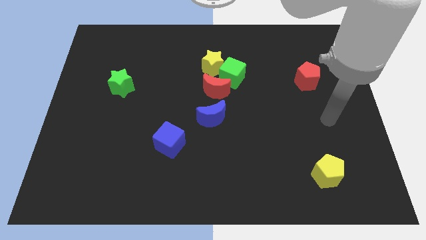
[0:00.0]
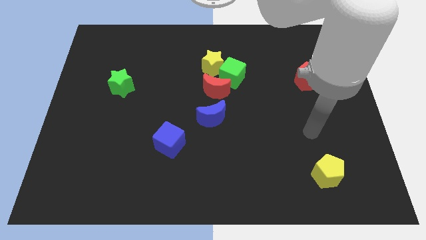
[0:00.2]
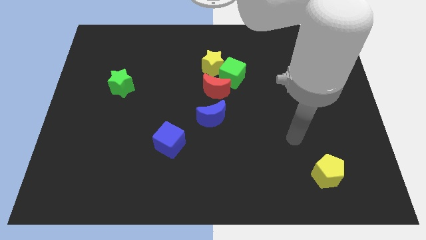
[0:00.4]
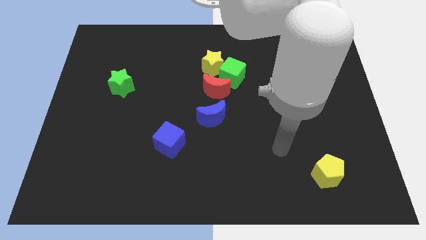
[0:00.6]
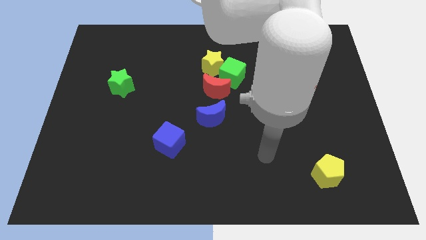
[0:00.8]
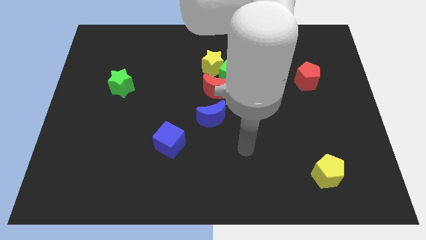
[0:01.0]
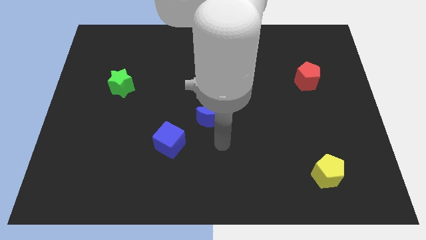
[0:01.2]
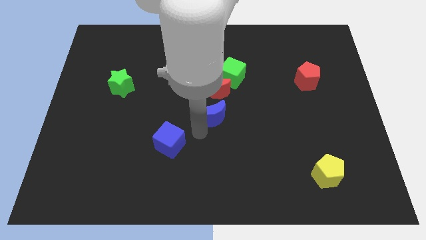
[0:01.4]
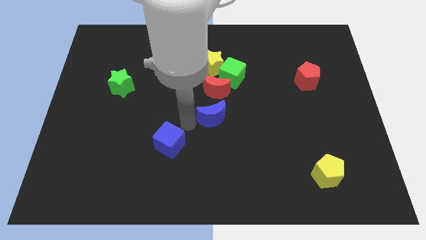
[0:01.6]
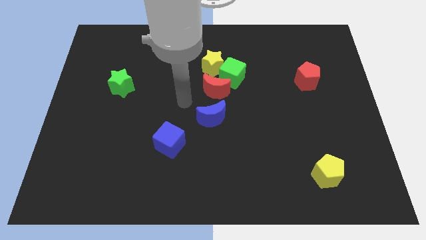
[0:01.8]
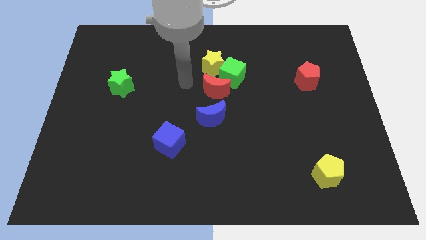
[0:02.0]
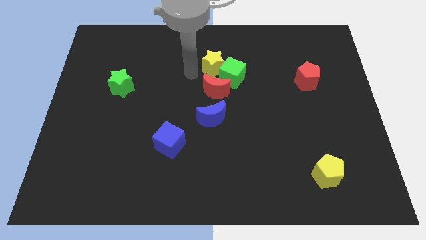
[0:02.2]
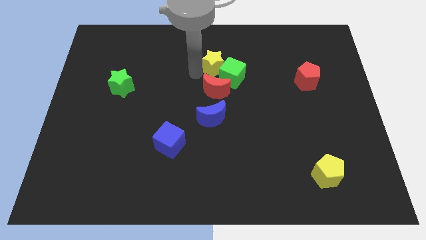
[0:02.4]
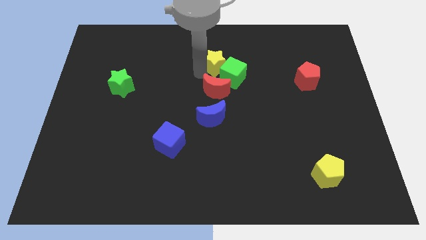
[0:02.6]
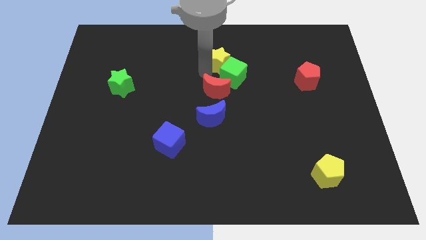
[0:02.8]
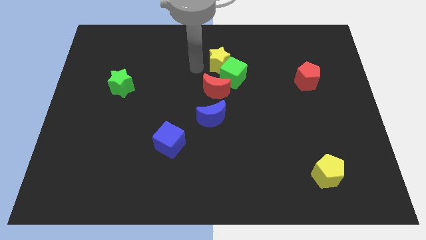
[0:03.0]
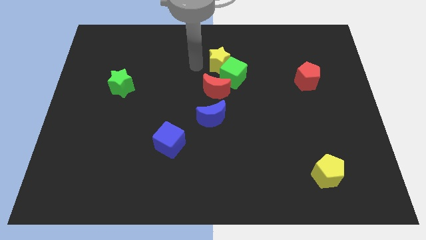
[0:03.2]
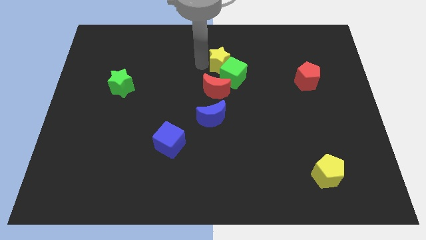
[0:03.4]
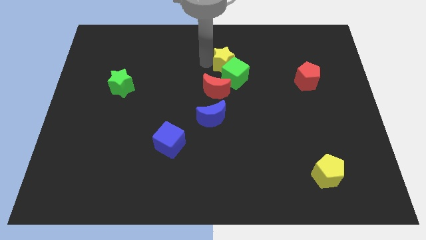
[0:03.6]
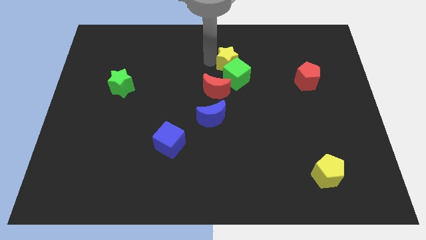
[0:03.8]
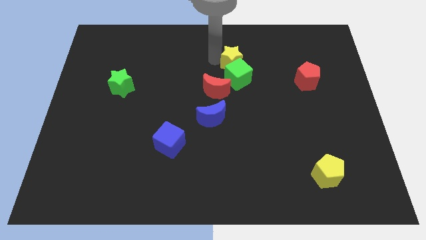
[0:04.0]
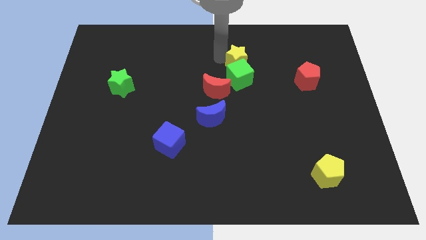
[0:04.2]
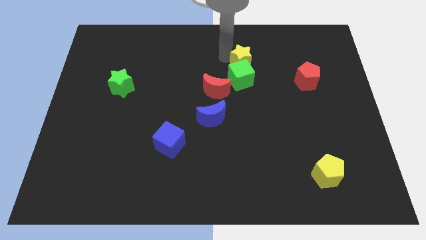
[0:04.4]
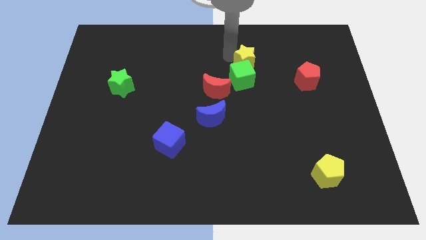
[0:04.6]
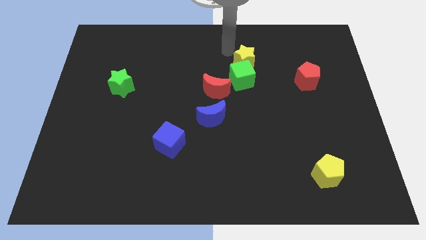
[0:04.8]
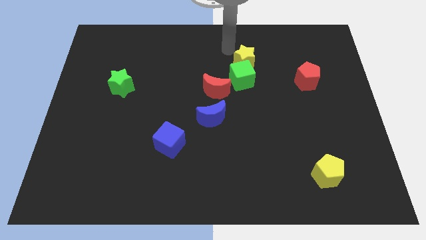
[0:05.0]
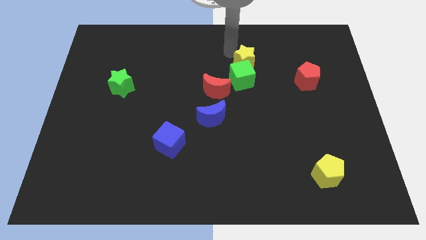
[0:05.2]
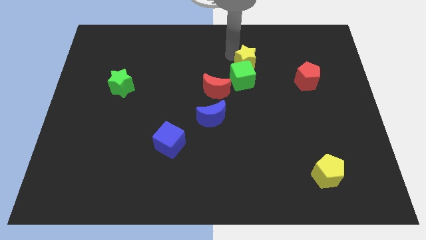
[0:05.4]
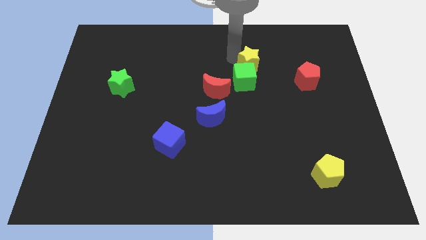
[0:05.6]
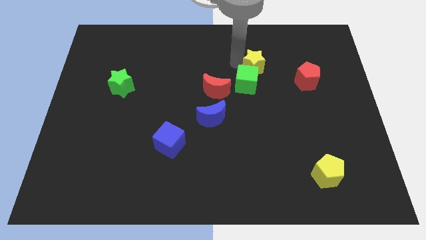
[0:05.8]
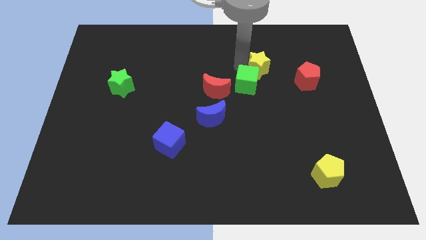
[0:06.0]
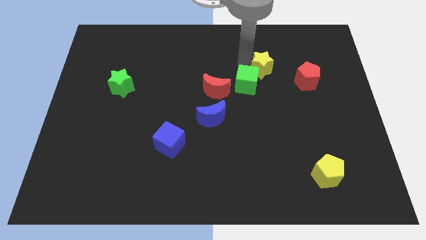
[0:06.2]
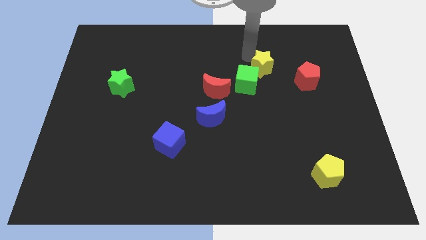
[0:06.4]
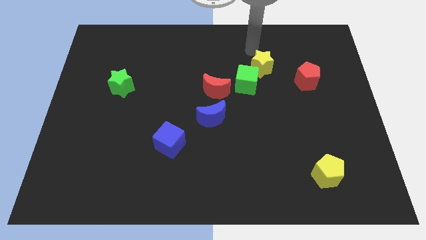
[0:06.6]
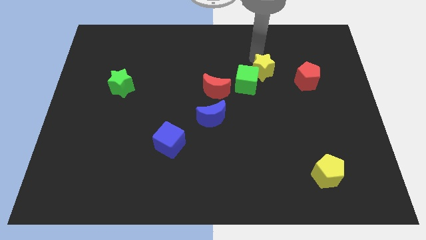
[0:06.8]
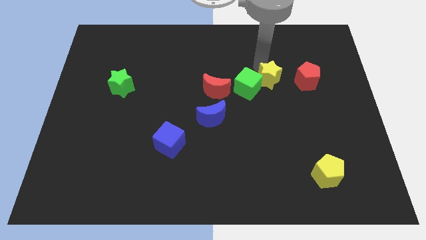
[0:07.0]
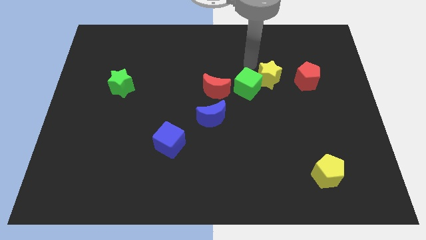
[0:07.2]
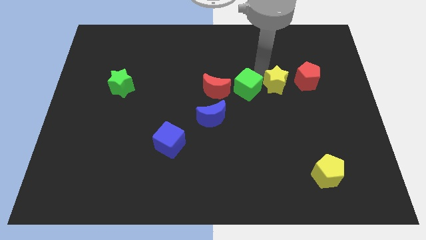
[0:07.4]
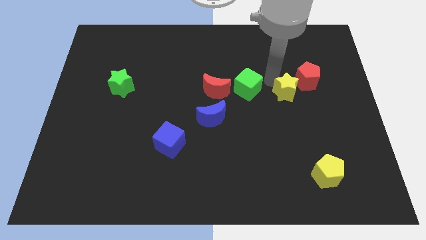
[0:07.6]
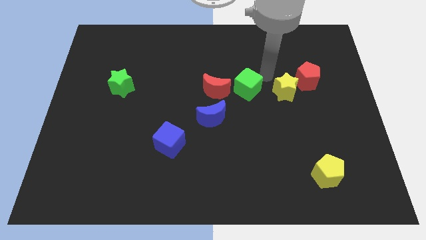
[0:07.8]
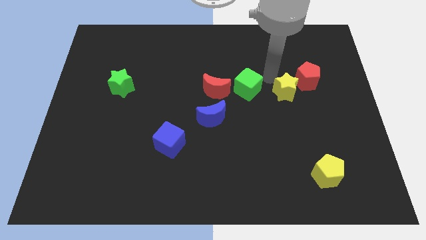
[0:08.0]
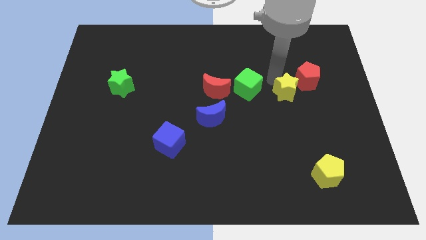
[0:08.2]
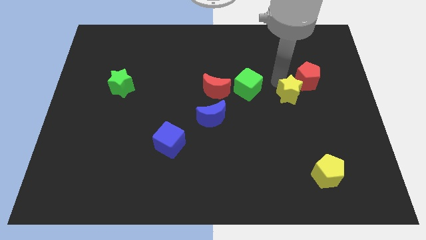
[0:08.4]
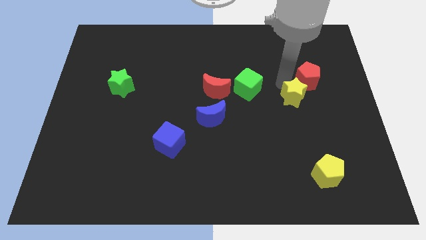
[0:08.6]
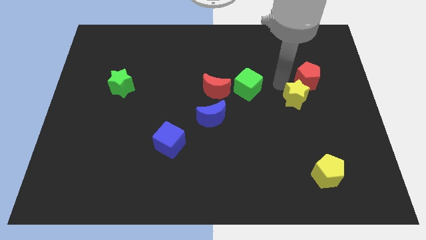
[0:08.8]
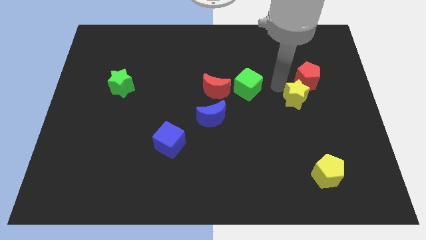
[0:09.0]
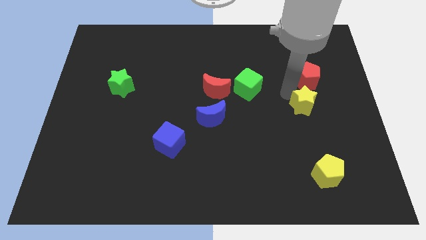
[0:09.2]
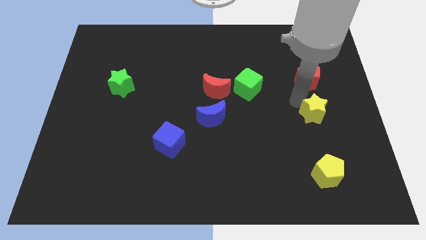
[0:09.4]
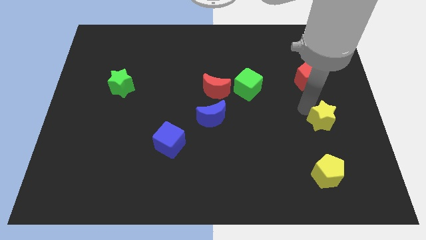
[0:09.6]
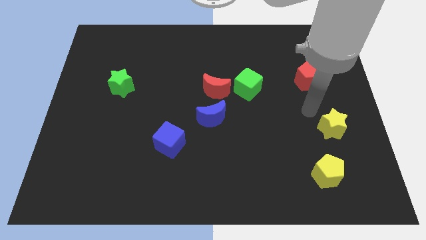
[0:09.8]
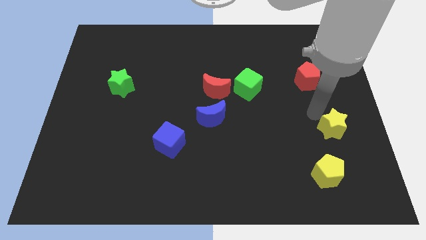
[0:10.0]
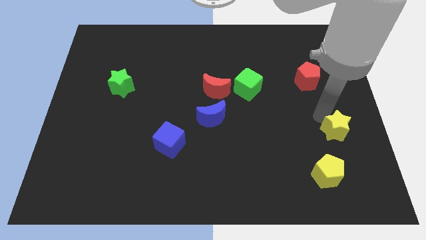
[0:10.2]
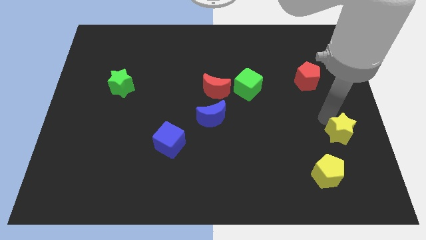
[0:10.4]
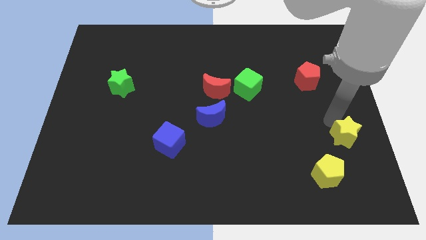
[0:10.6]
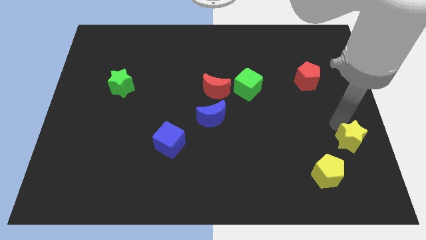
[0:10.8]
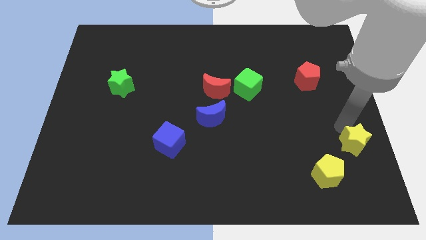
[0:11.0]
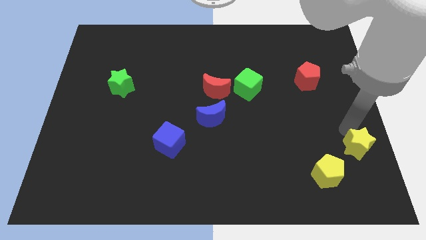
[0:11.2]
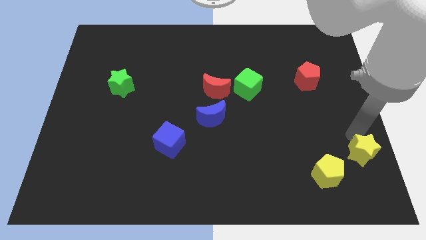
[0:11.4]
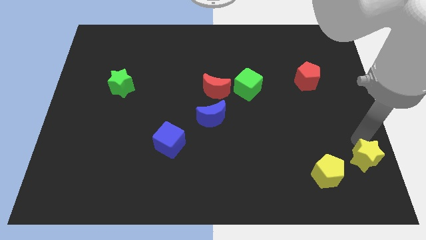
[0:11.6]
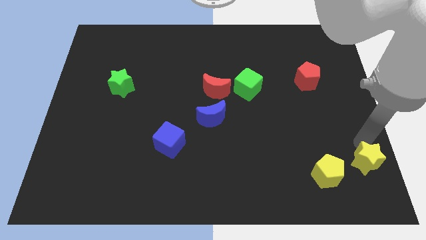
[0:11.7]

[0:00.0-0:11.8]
put the yellow star to the bottom right corner
